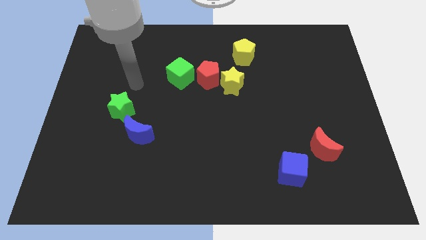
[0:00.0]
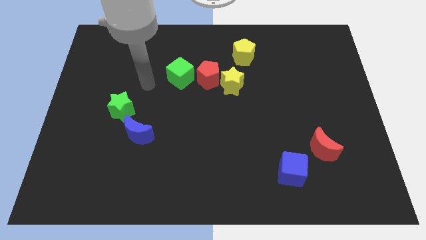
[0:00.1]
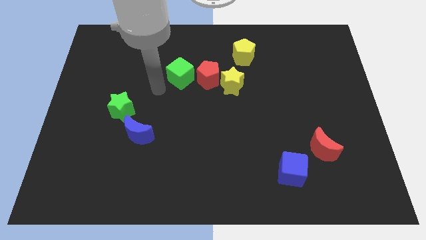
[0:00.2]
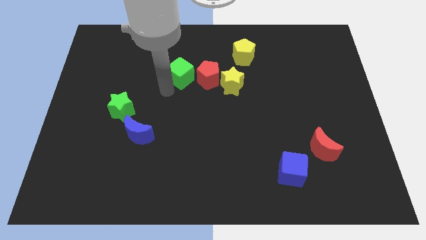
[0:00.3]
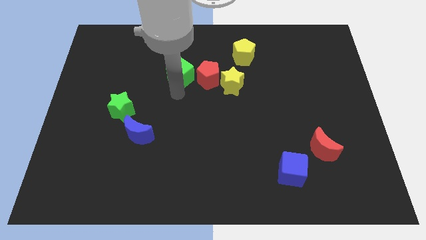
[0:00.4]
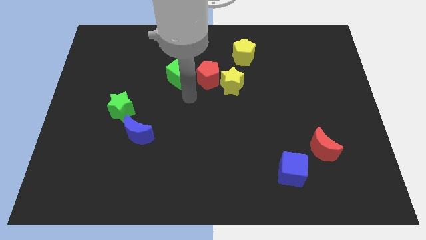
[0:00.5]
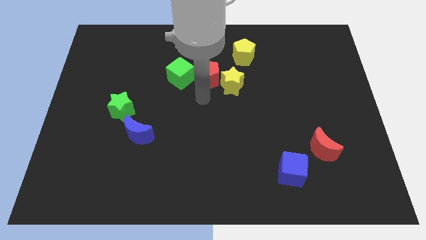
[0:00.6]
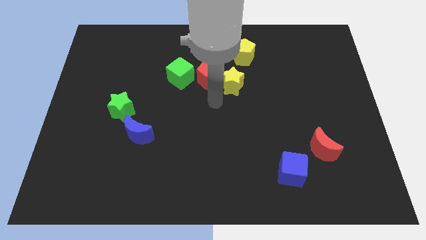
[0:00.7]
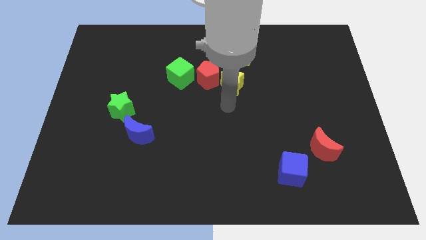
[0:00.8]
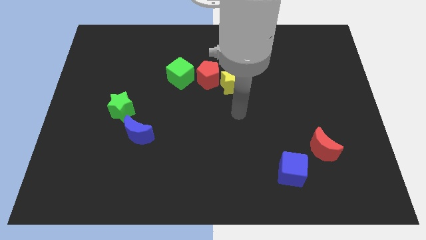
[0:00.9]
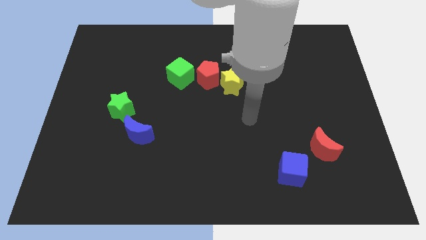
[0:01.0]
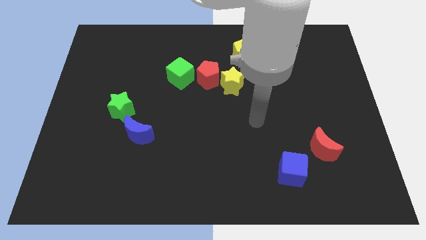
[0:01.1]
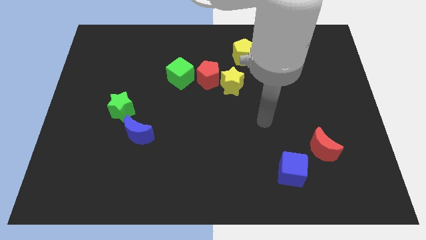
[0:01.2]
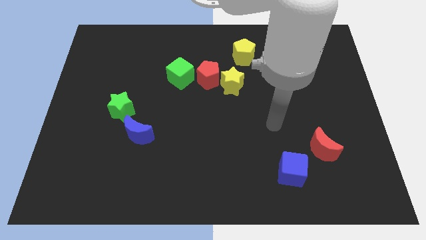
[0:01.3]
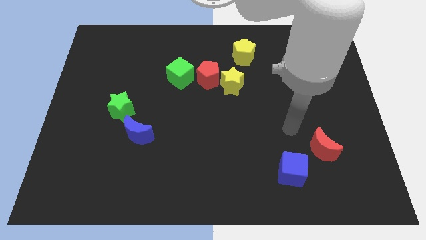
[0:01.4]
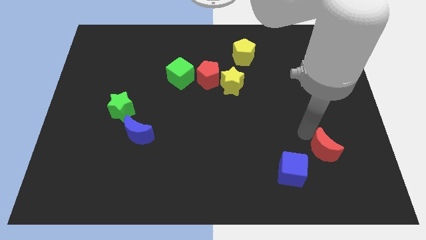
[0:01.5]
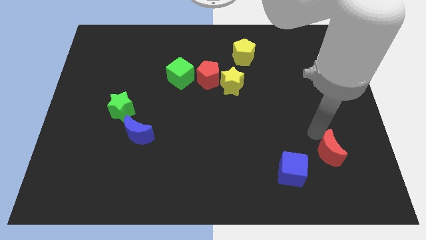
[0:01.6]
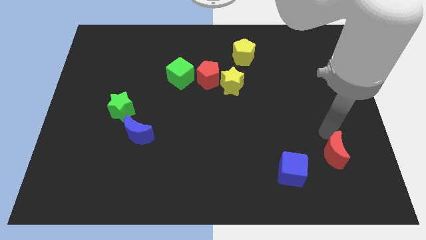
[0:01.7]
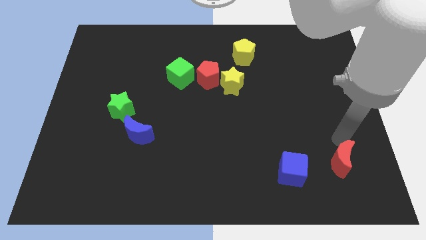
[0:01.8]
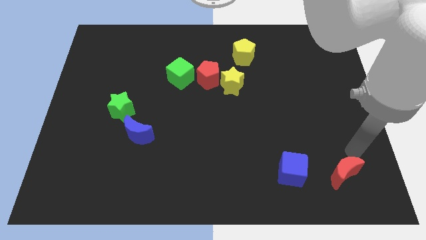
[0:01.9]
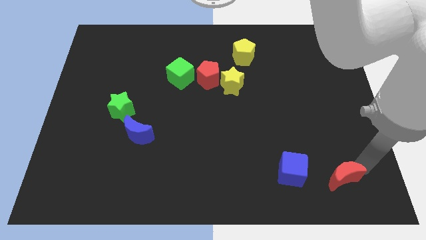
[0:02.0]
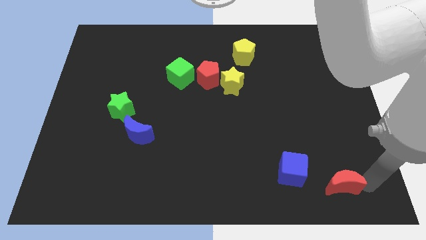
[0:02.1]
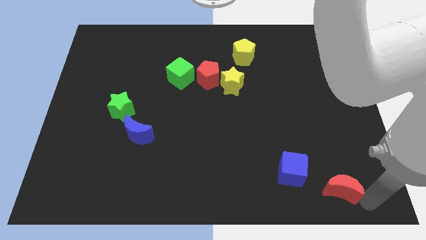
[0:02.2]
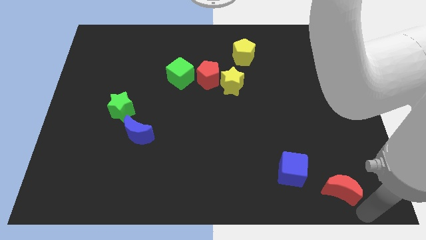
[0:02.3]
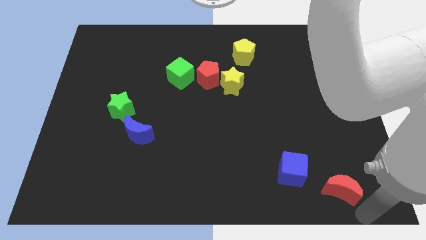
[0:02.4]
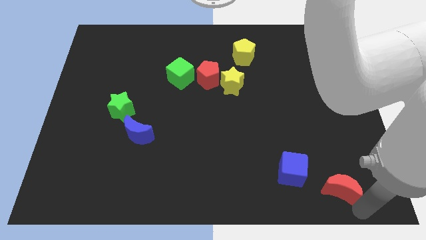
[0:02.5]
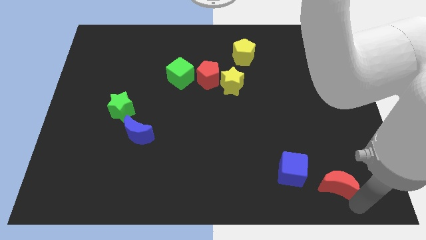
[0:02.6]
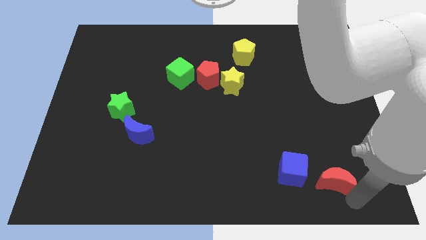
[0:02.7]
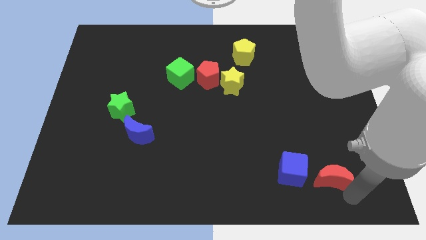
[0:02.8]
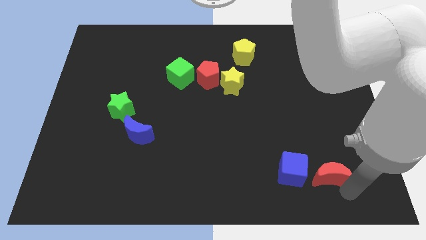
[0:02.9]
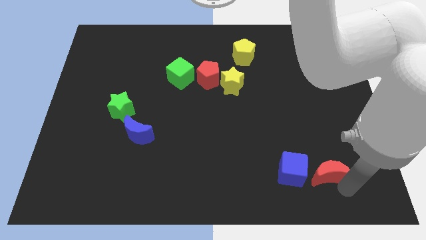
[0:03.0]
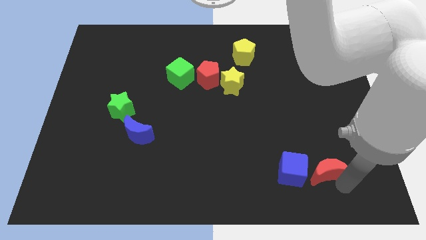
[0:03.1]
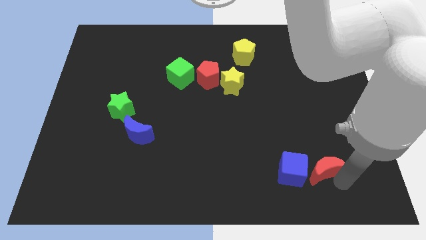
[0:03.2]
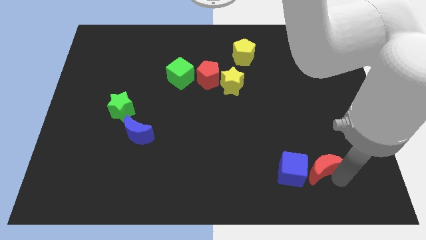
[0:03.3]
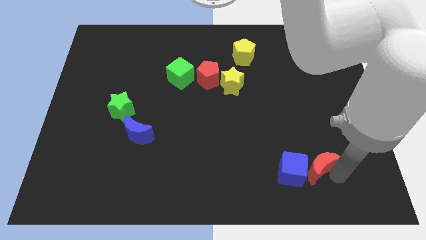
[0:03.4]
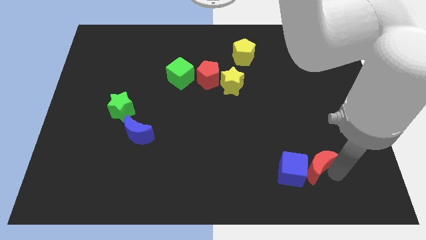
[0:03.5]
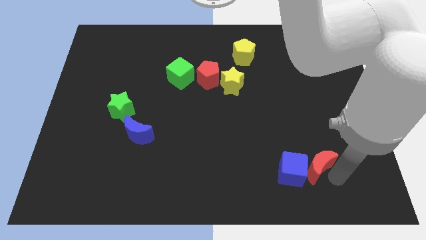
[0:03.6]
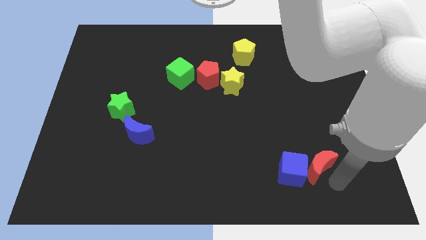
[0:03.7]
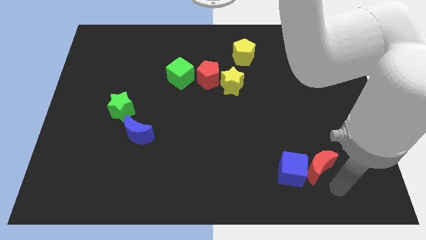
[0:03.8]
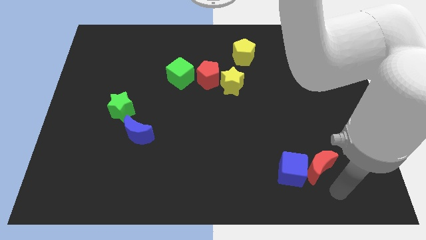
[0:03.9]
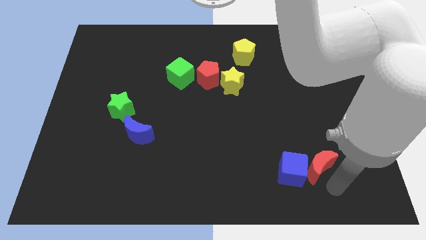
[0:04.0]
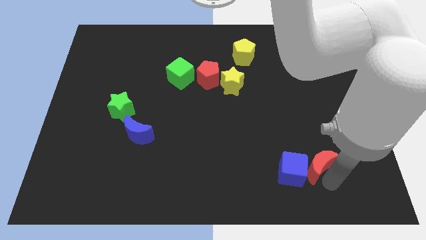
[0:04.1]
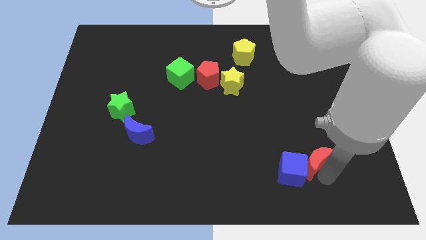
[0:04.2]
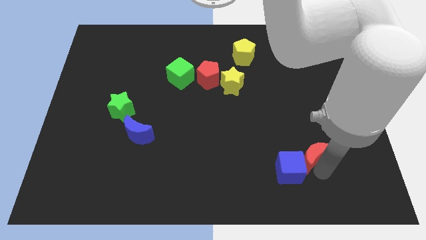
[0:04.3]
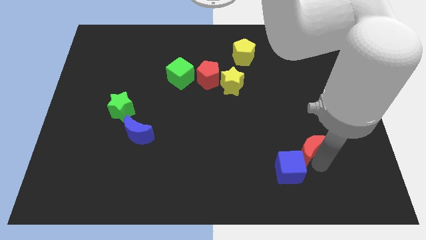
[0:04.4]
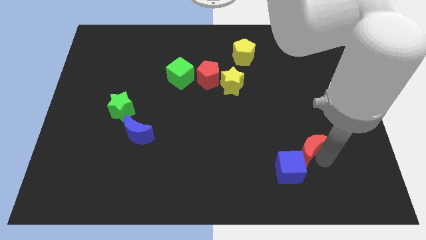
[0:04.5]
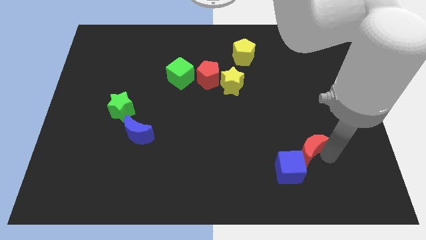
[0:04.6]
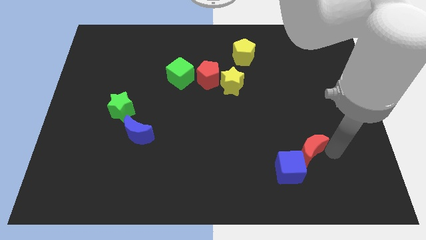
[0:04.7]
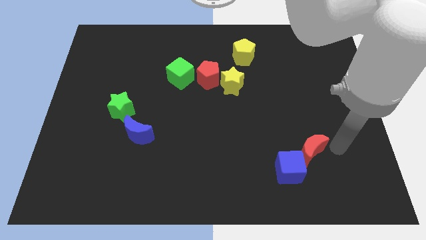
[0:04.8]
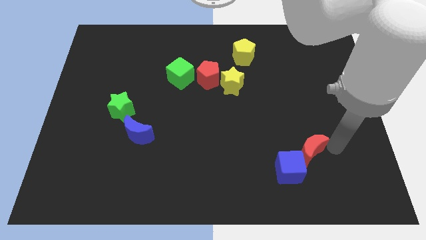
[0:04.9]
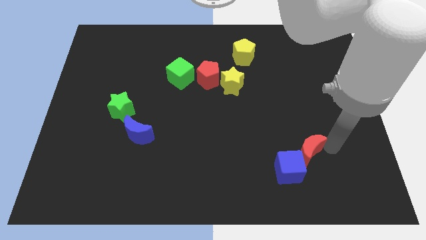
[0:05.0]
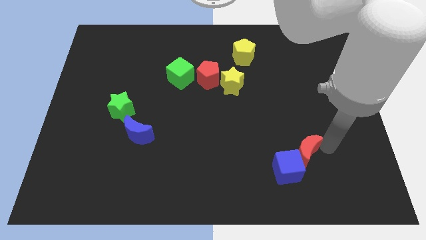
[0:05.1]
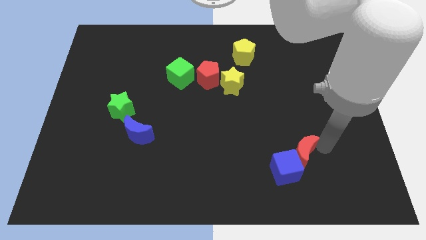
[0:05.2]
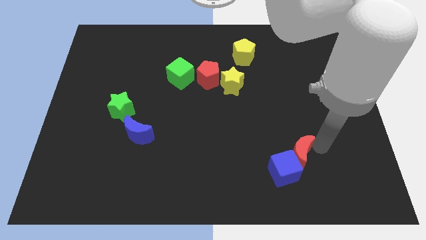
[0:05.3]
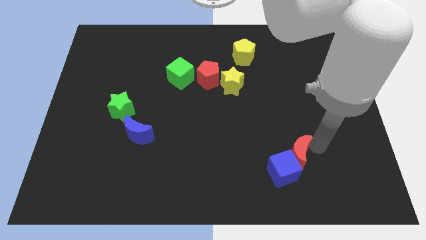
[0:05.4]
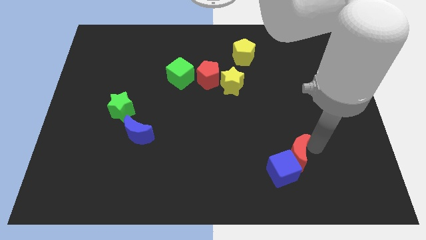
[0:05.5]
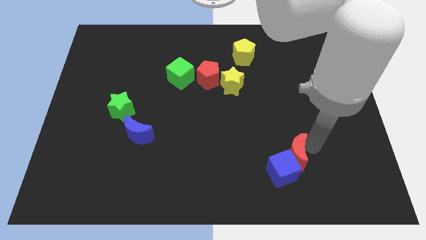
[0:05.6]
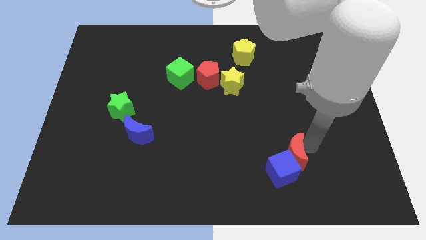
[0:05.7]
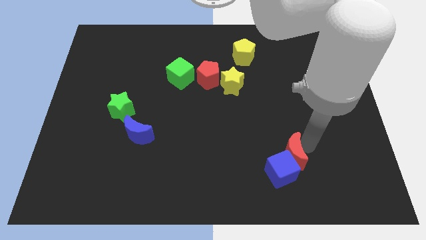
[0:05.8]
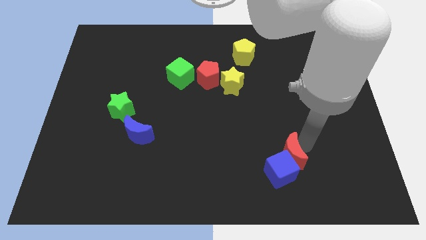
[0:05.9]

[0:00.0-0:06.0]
slightly slide the red moon left

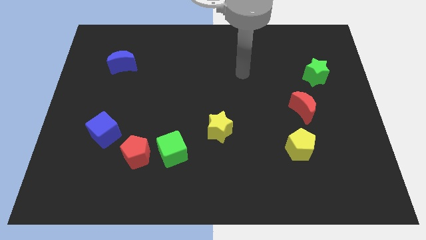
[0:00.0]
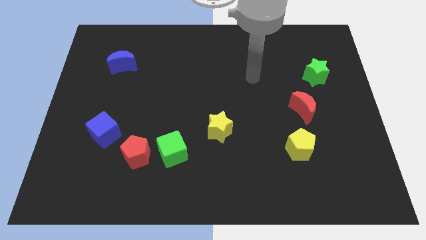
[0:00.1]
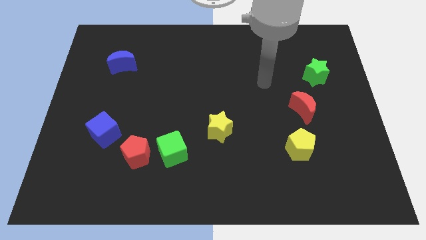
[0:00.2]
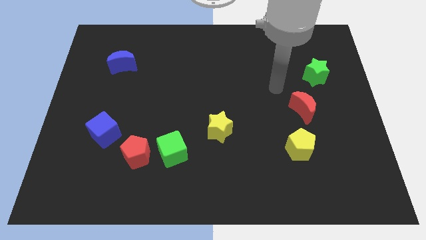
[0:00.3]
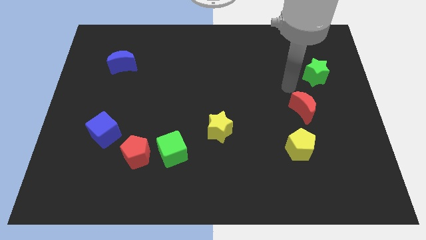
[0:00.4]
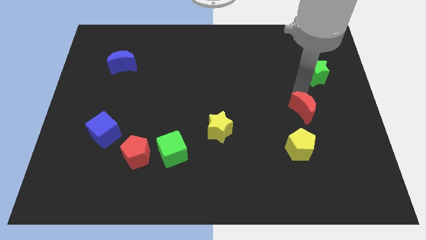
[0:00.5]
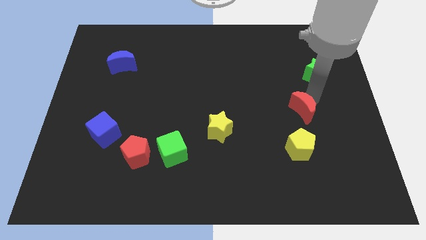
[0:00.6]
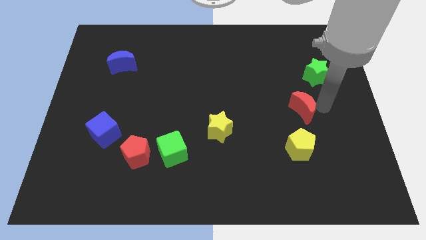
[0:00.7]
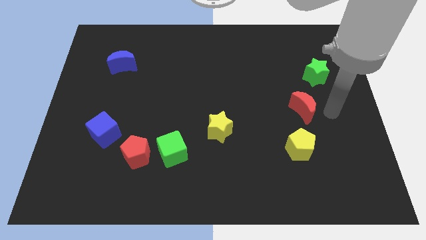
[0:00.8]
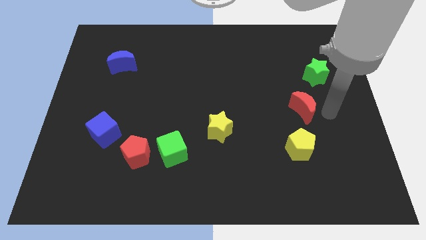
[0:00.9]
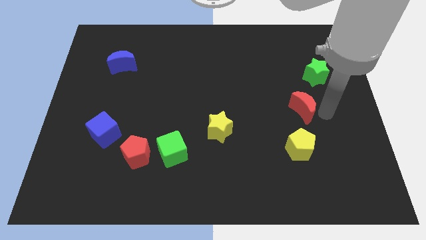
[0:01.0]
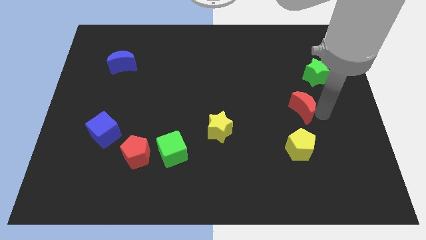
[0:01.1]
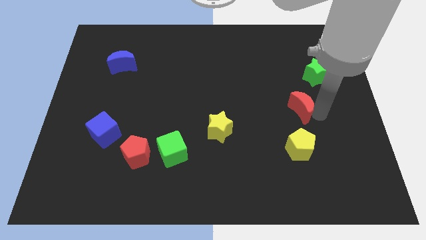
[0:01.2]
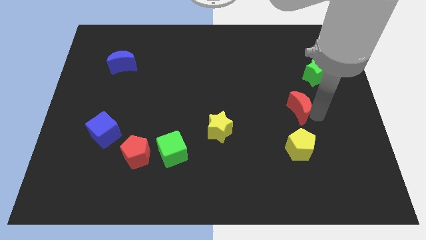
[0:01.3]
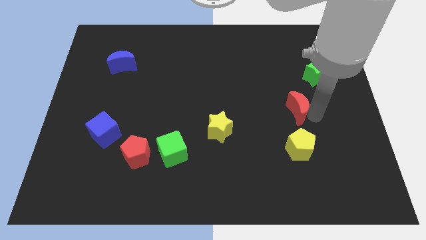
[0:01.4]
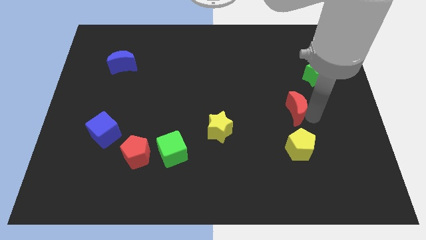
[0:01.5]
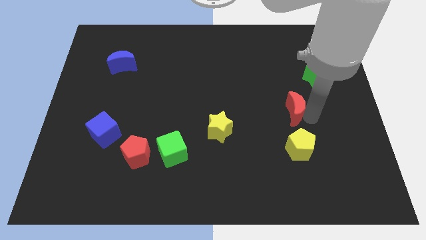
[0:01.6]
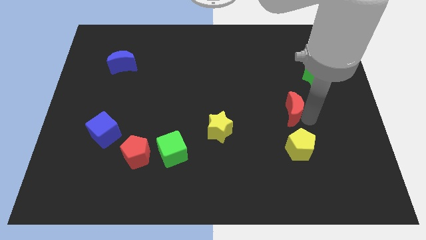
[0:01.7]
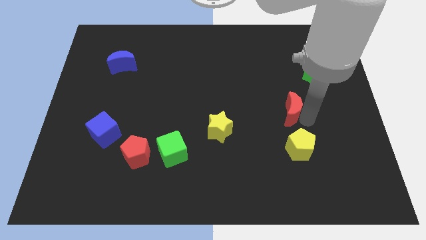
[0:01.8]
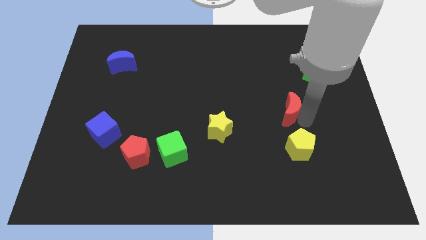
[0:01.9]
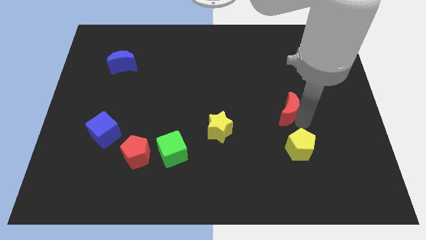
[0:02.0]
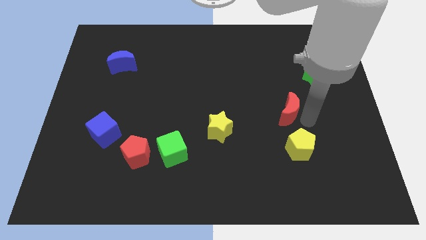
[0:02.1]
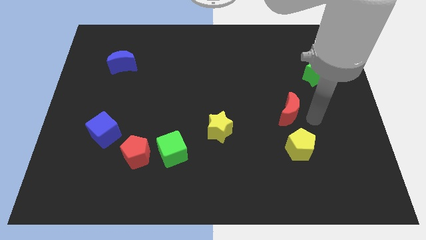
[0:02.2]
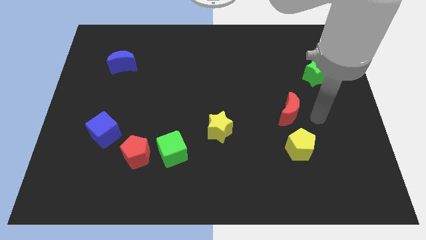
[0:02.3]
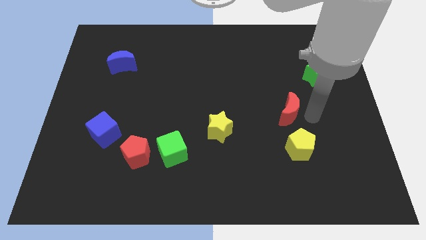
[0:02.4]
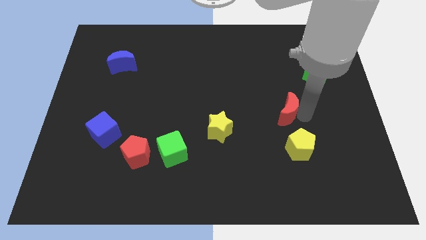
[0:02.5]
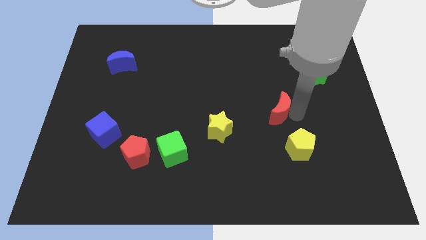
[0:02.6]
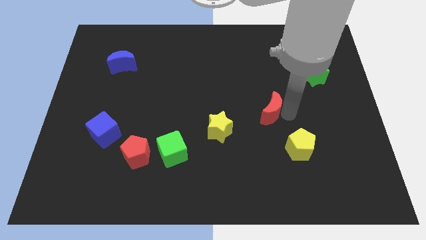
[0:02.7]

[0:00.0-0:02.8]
slightly move the red moon left
